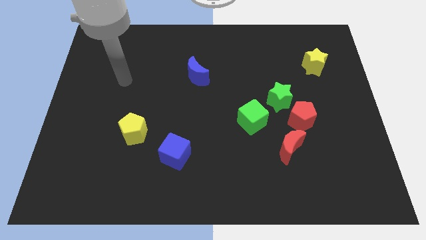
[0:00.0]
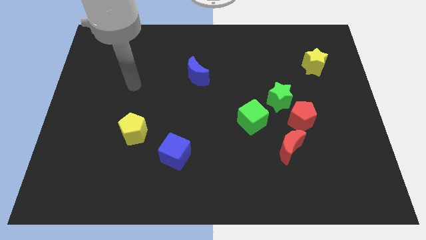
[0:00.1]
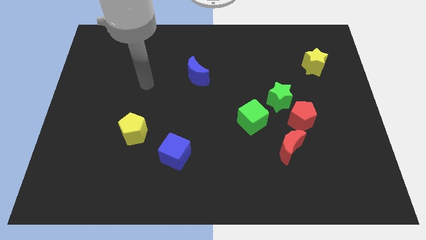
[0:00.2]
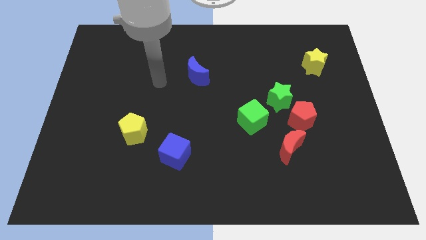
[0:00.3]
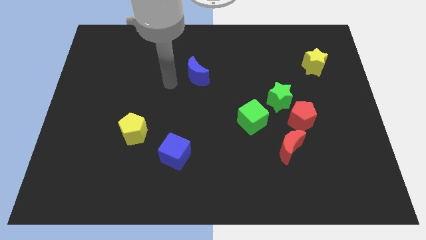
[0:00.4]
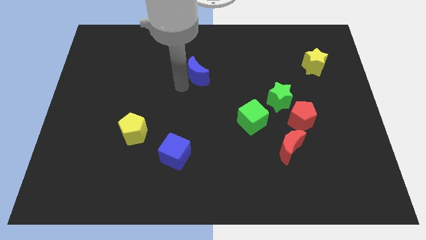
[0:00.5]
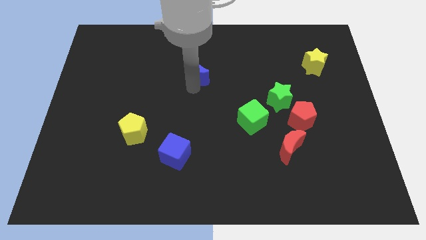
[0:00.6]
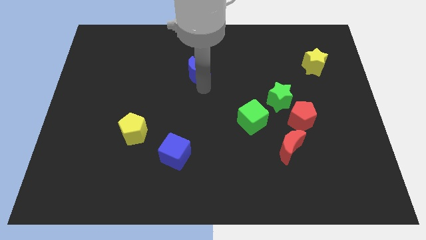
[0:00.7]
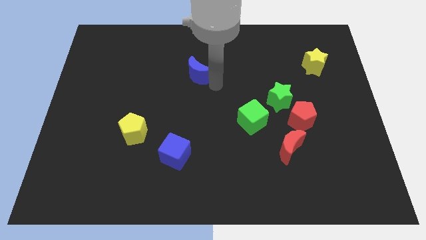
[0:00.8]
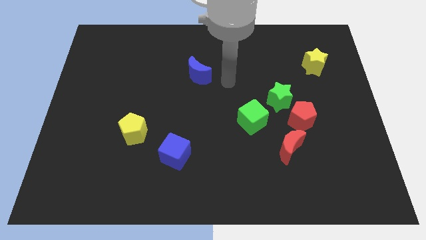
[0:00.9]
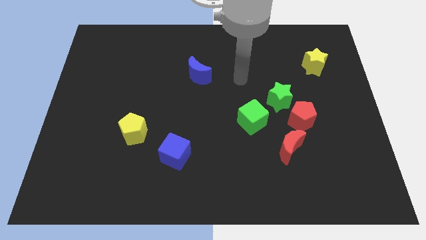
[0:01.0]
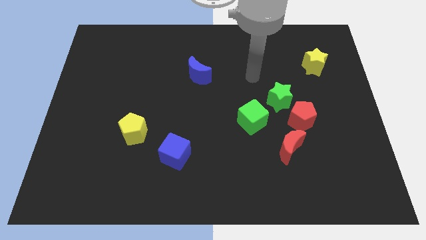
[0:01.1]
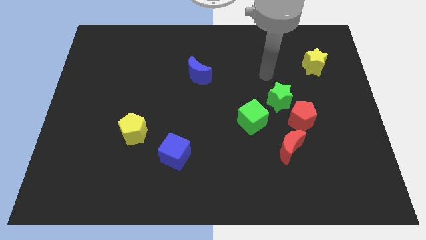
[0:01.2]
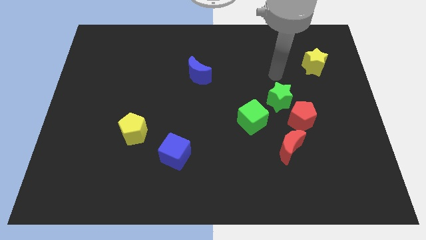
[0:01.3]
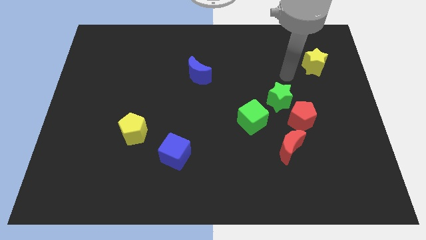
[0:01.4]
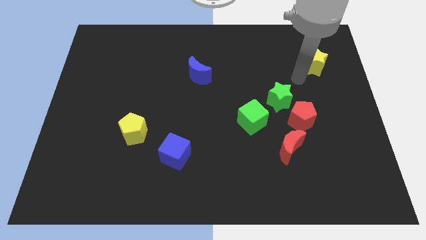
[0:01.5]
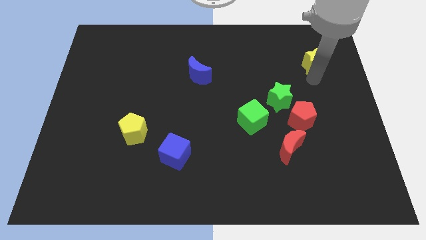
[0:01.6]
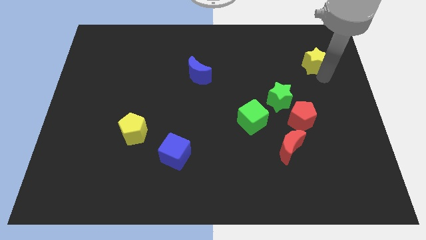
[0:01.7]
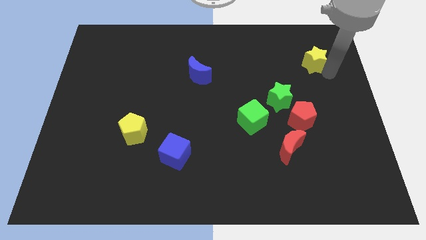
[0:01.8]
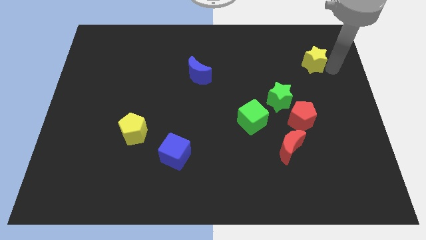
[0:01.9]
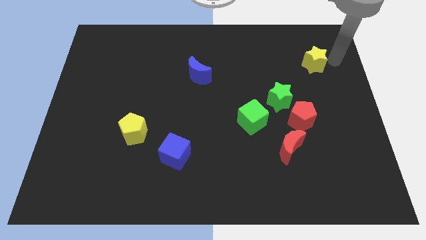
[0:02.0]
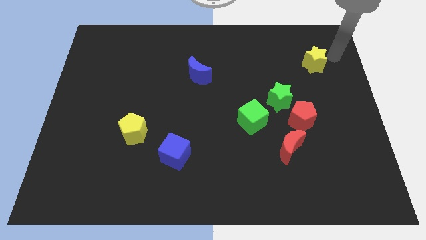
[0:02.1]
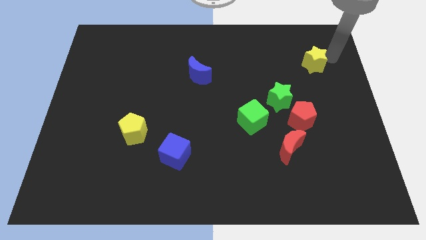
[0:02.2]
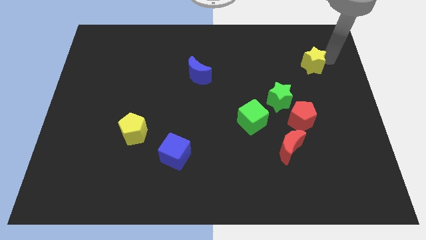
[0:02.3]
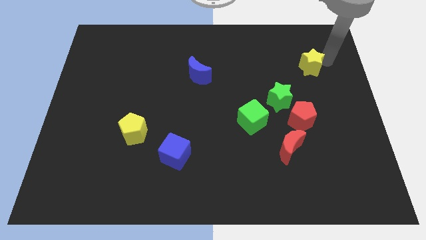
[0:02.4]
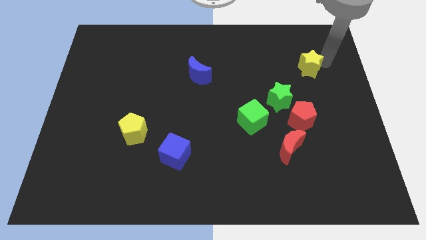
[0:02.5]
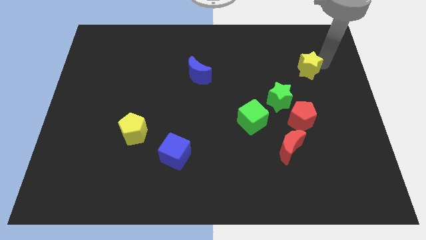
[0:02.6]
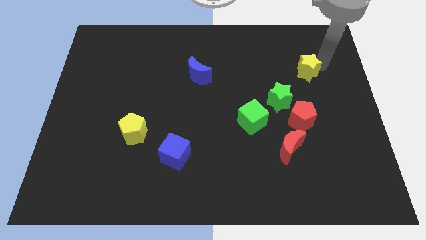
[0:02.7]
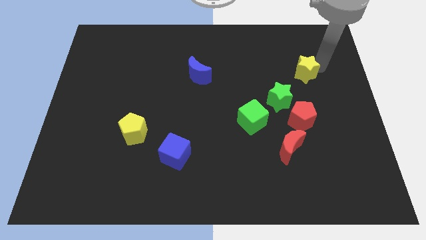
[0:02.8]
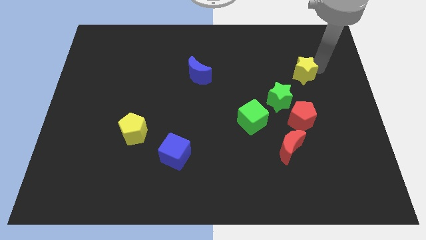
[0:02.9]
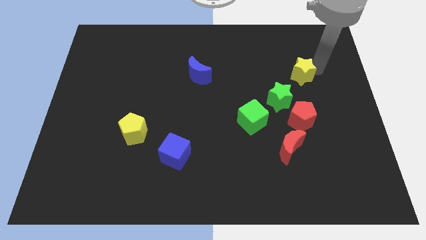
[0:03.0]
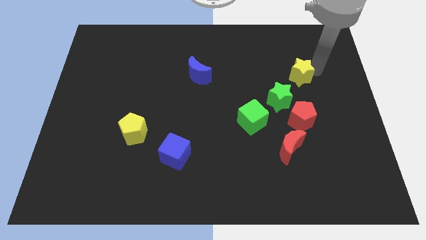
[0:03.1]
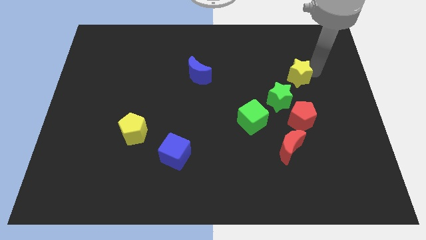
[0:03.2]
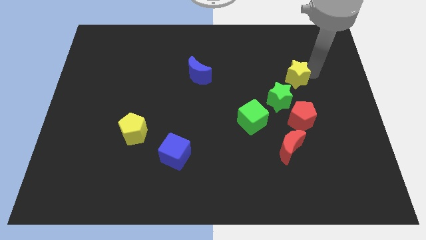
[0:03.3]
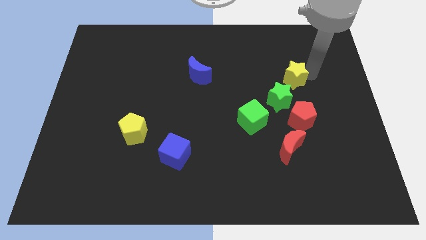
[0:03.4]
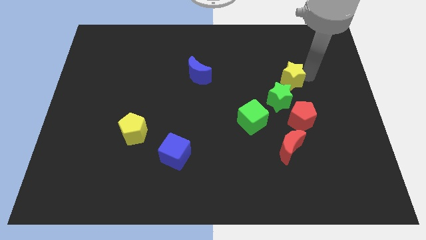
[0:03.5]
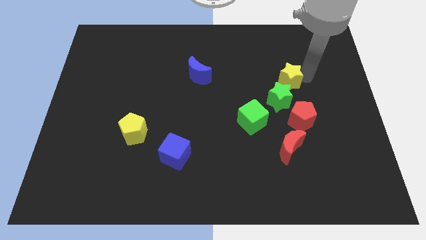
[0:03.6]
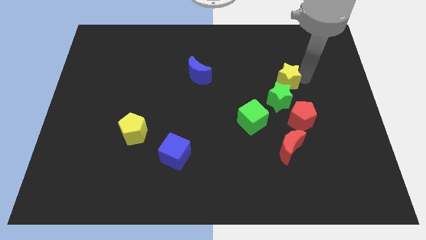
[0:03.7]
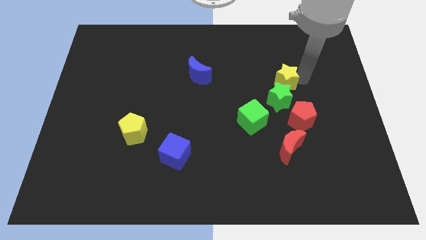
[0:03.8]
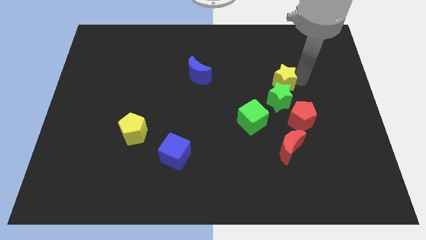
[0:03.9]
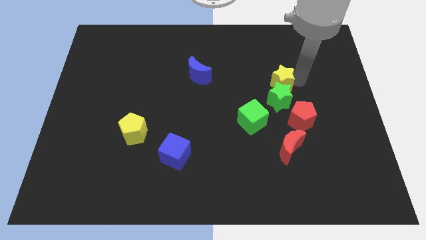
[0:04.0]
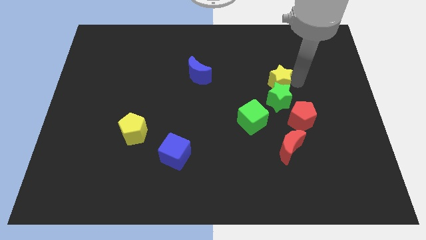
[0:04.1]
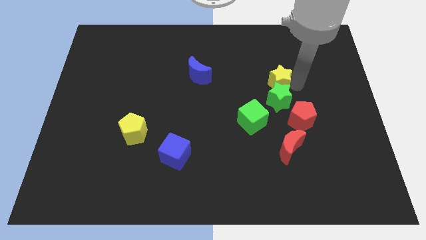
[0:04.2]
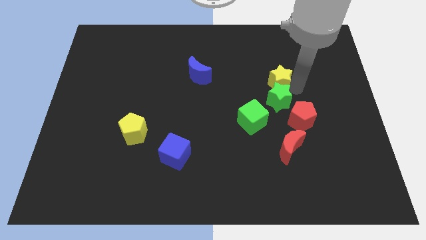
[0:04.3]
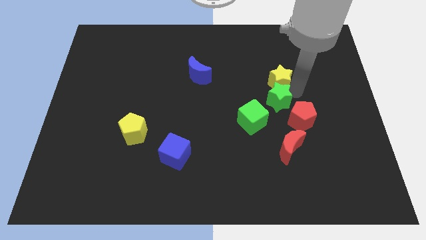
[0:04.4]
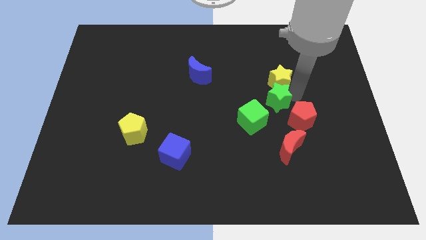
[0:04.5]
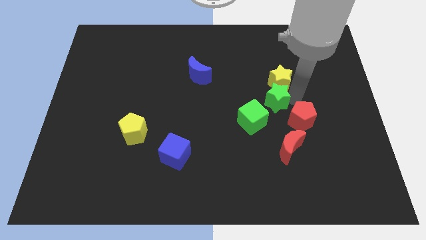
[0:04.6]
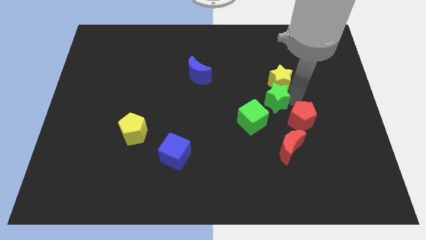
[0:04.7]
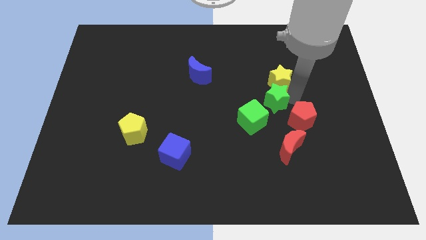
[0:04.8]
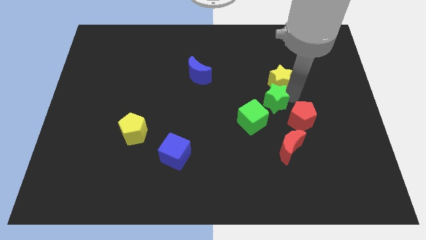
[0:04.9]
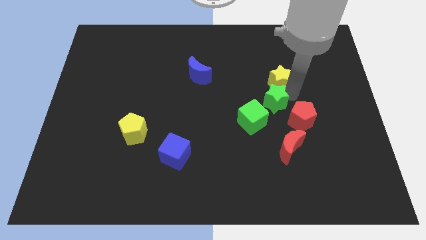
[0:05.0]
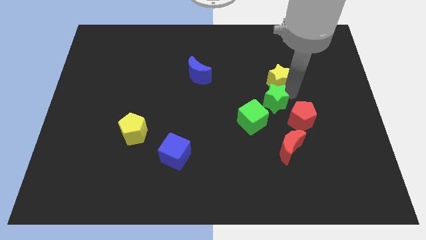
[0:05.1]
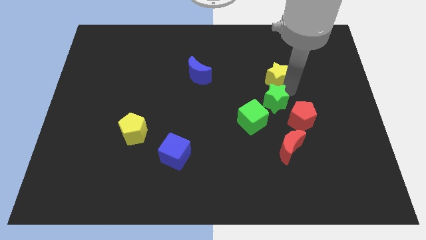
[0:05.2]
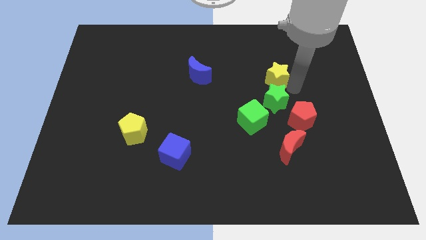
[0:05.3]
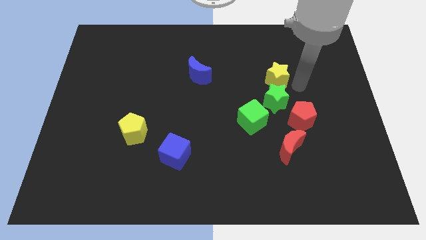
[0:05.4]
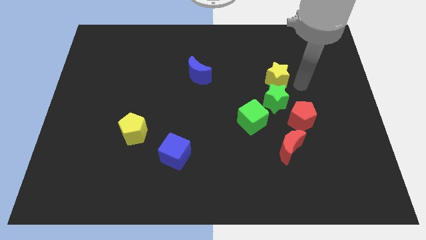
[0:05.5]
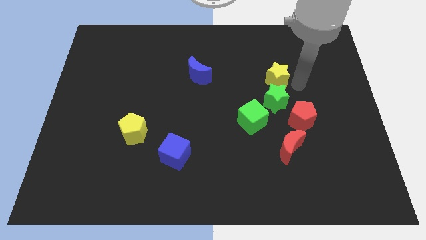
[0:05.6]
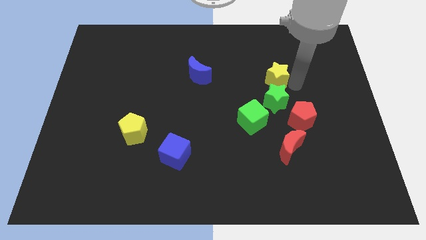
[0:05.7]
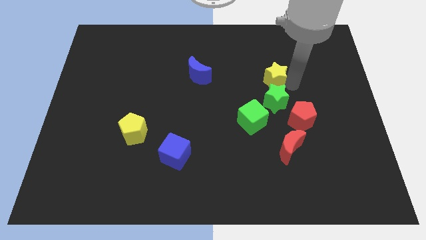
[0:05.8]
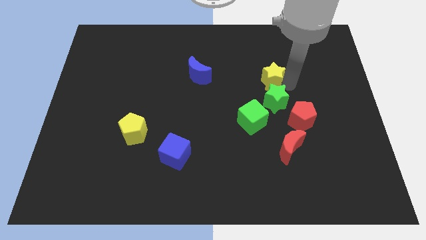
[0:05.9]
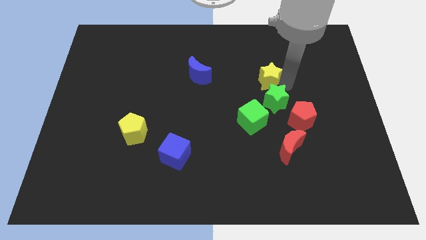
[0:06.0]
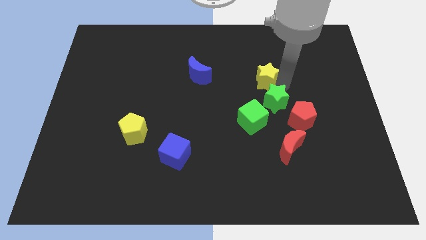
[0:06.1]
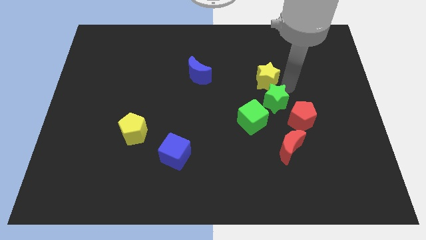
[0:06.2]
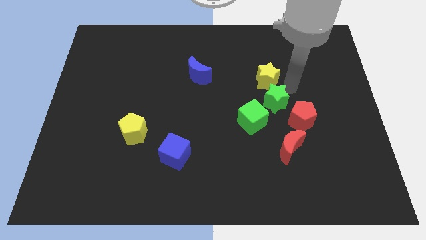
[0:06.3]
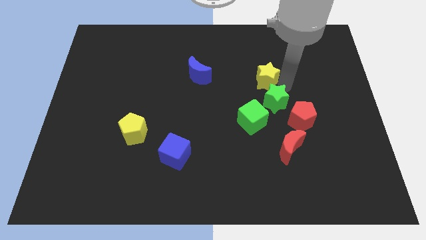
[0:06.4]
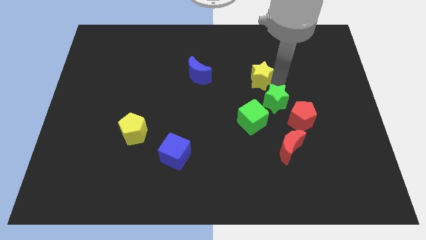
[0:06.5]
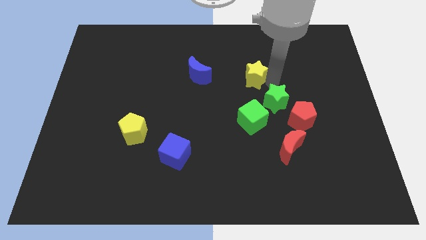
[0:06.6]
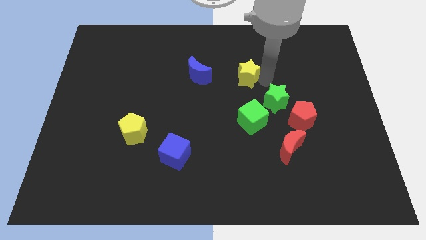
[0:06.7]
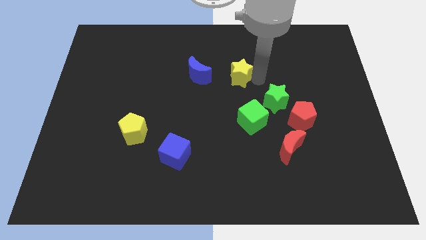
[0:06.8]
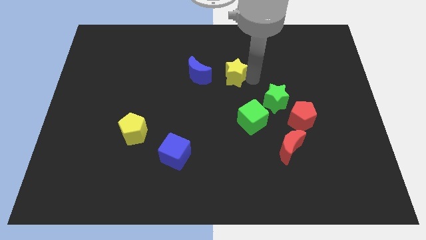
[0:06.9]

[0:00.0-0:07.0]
push the yellow star left

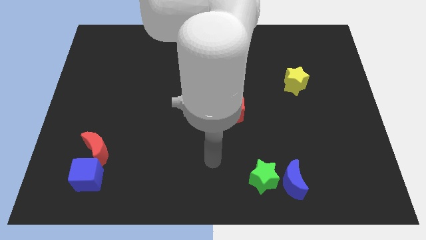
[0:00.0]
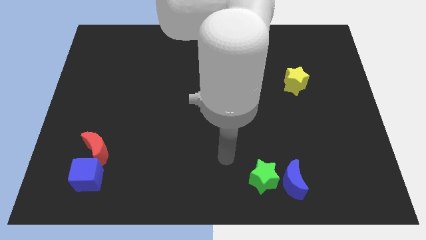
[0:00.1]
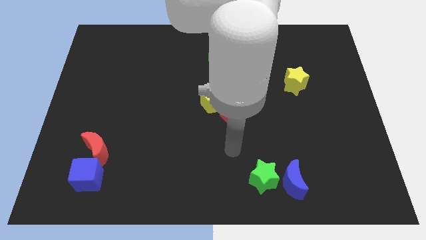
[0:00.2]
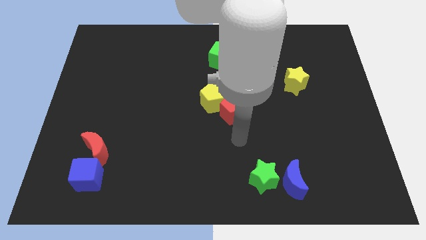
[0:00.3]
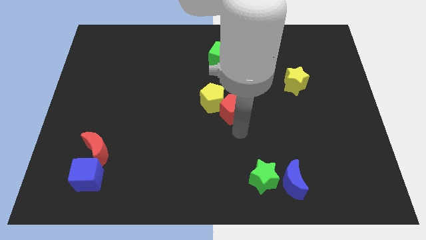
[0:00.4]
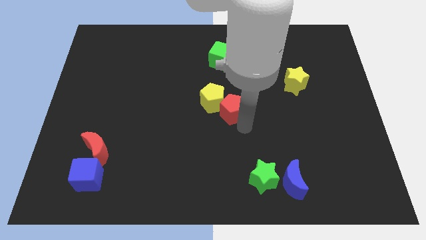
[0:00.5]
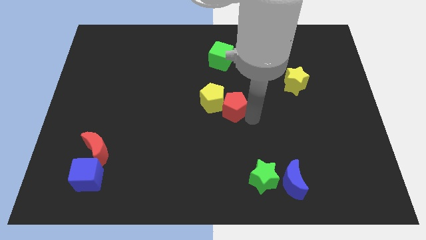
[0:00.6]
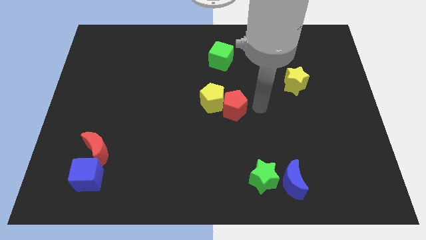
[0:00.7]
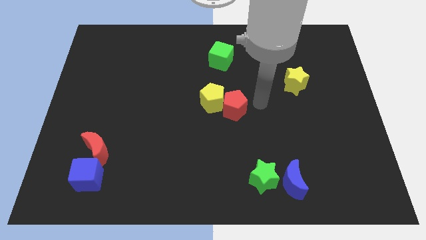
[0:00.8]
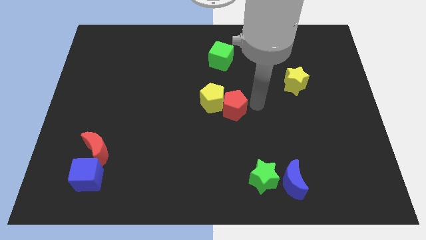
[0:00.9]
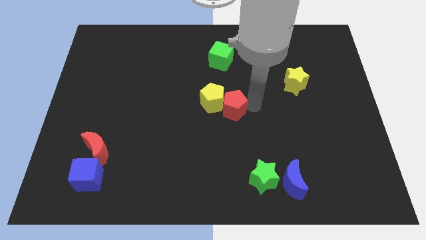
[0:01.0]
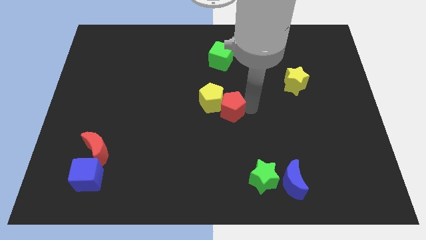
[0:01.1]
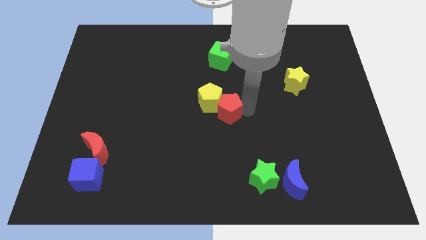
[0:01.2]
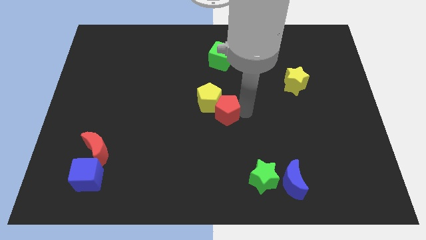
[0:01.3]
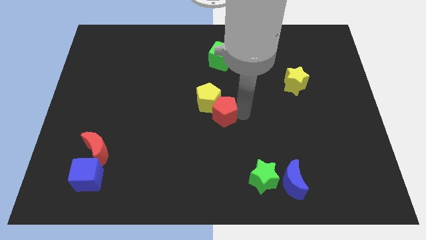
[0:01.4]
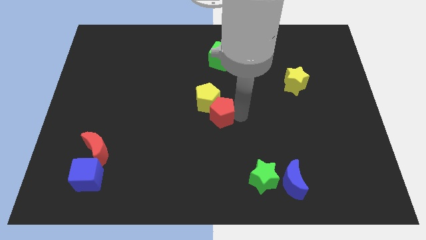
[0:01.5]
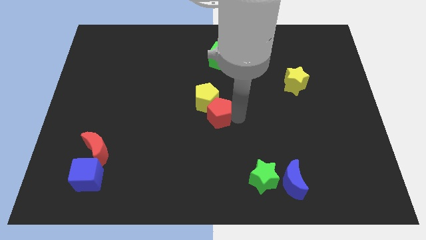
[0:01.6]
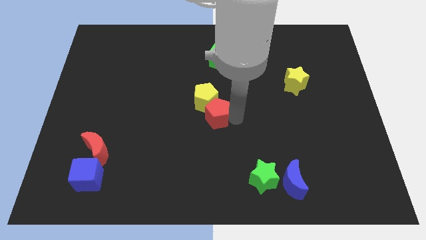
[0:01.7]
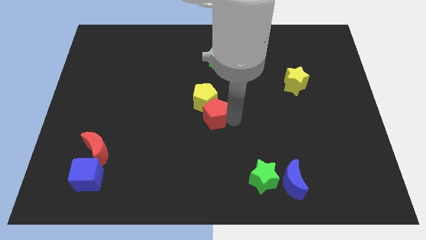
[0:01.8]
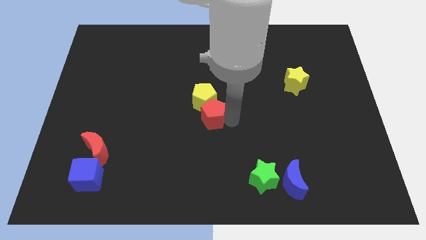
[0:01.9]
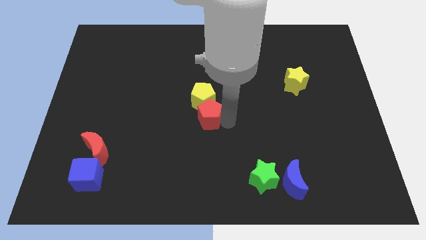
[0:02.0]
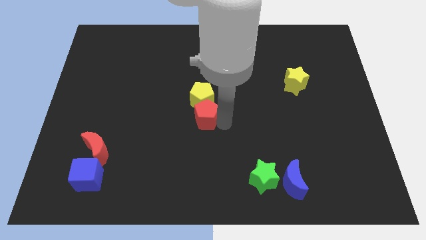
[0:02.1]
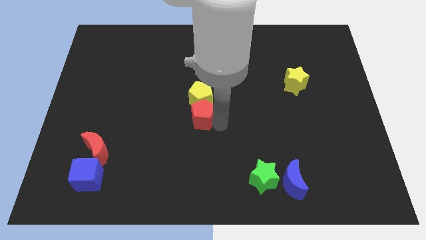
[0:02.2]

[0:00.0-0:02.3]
push the red pentagon to the left a bit
